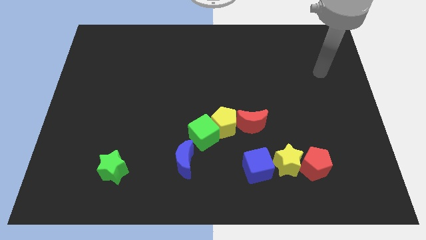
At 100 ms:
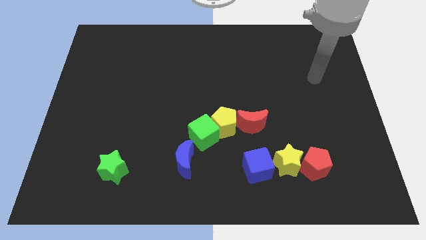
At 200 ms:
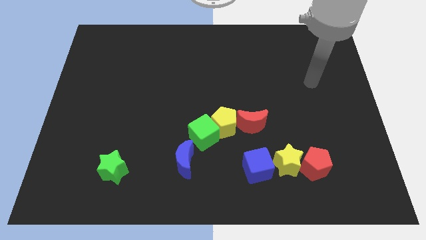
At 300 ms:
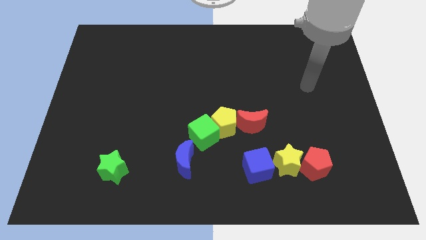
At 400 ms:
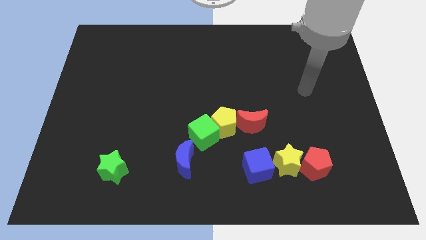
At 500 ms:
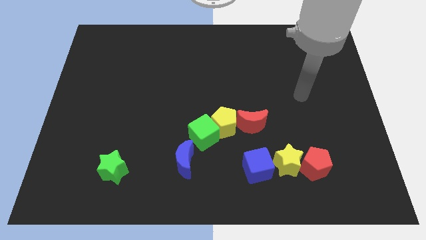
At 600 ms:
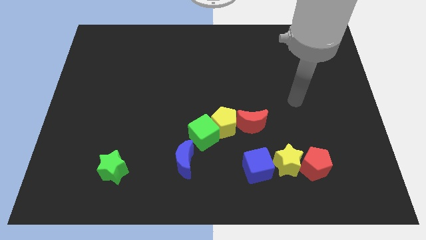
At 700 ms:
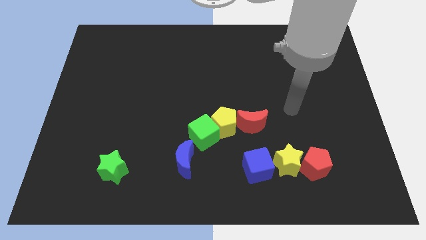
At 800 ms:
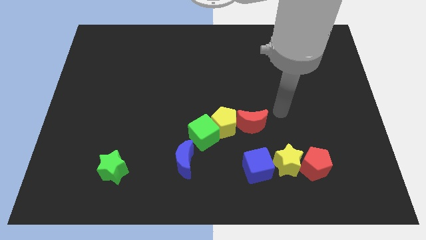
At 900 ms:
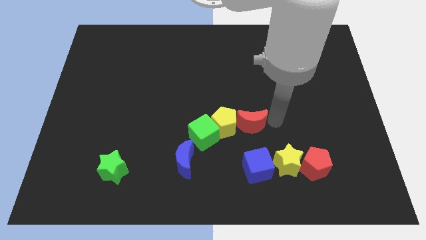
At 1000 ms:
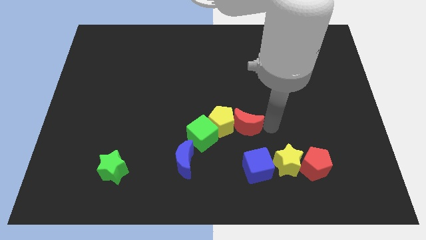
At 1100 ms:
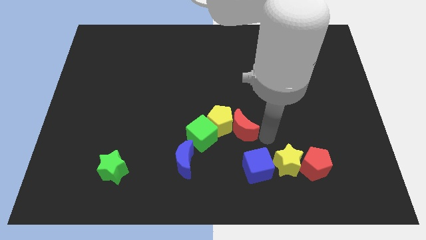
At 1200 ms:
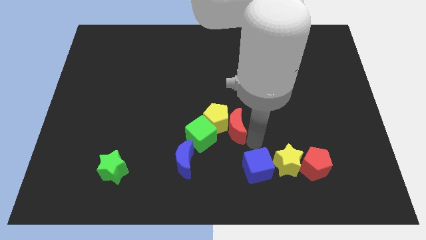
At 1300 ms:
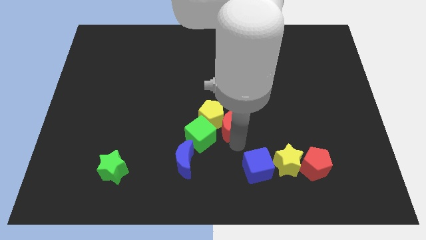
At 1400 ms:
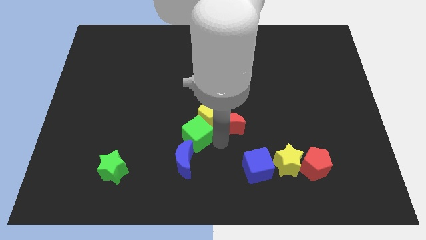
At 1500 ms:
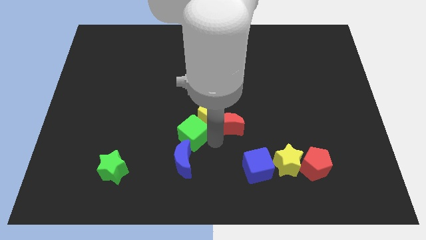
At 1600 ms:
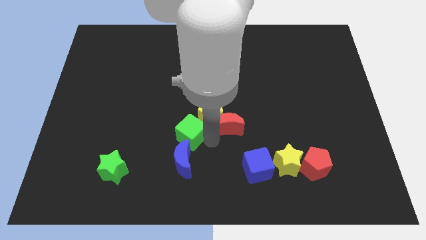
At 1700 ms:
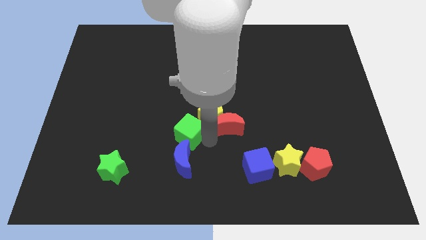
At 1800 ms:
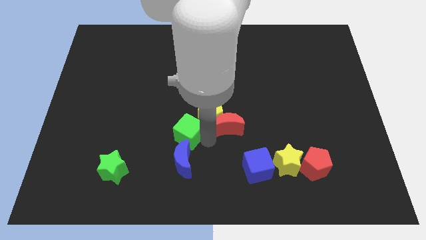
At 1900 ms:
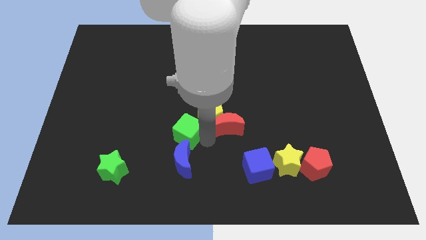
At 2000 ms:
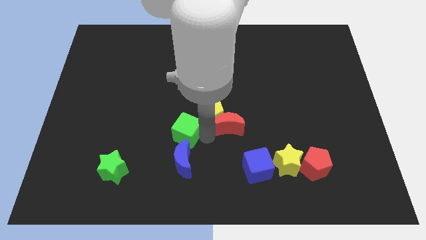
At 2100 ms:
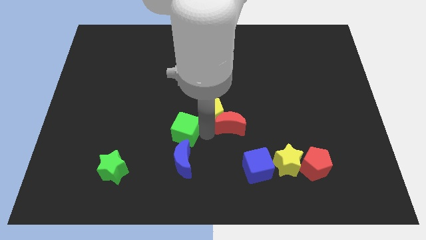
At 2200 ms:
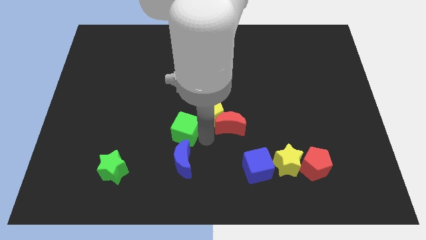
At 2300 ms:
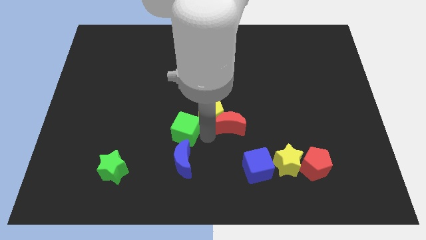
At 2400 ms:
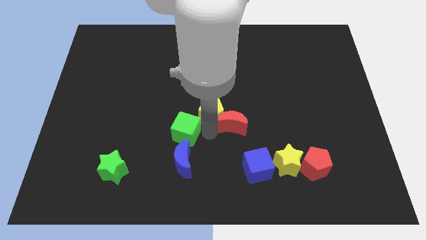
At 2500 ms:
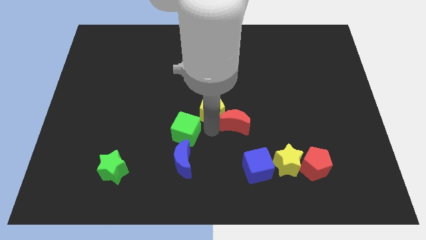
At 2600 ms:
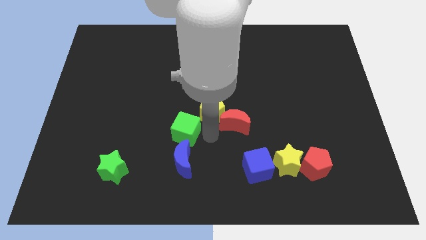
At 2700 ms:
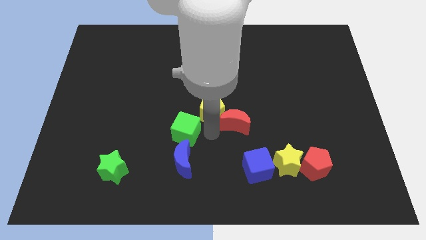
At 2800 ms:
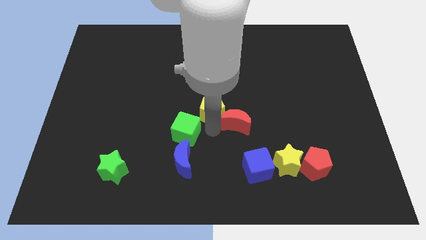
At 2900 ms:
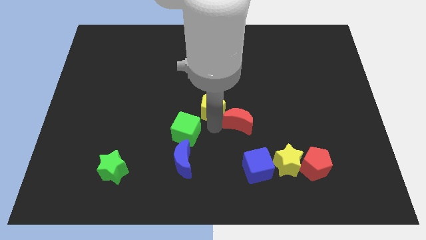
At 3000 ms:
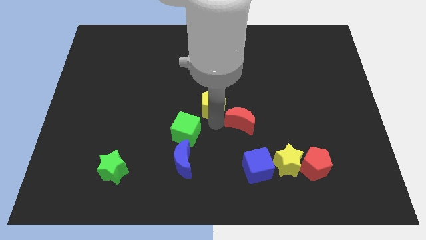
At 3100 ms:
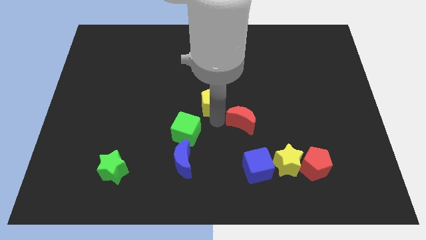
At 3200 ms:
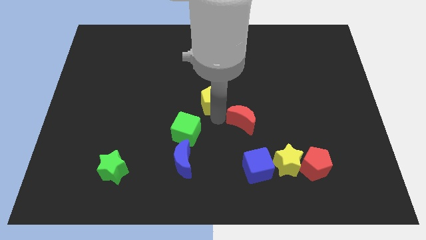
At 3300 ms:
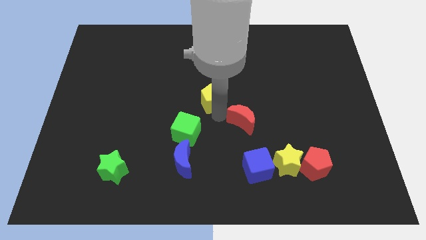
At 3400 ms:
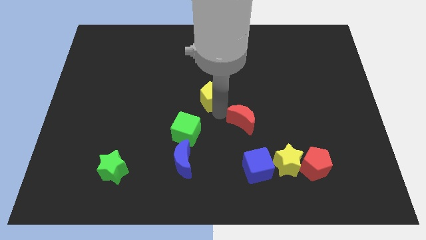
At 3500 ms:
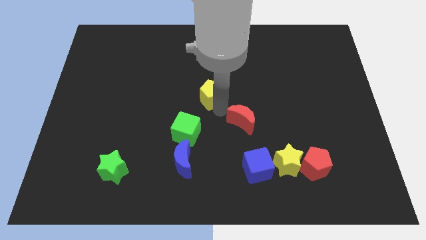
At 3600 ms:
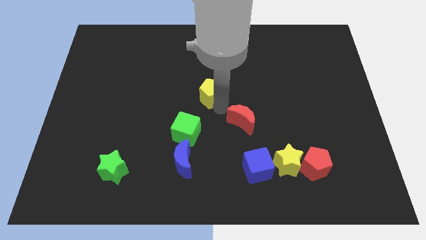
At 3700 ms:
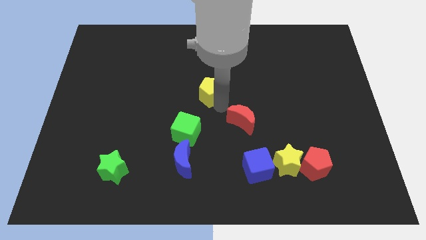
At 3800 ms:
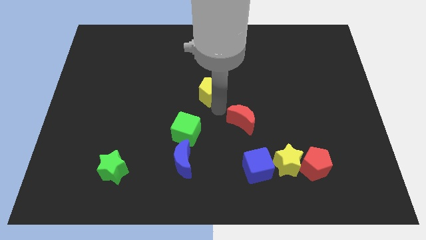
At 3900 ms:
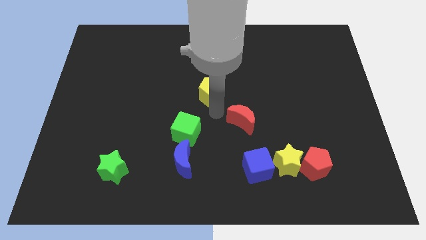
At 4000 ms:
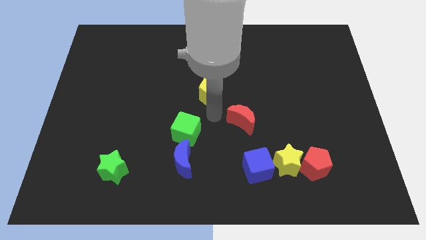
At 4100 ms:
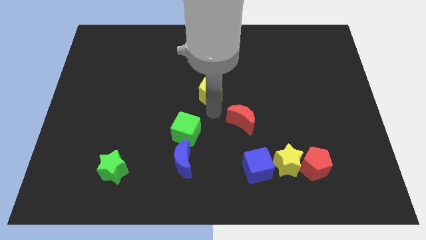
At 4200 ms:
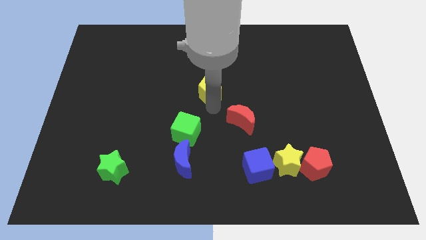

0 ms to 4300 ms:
separate the yellow pentagon from the green cube and red moon

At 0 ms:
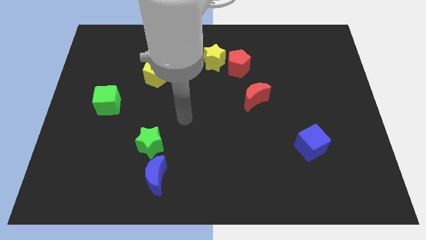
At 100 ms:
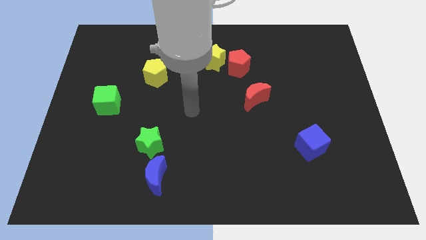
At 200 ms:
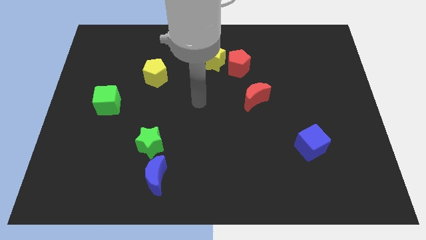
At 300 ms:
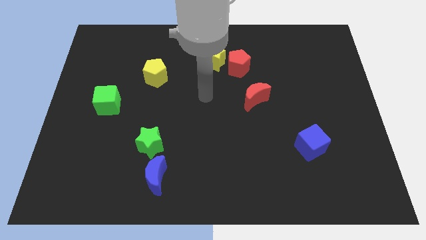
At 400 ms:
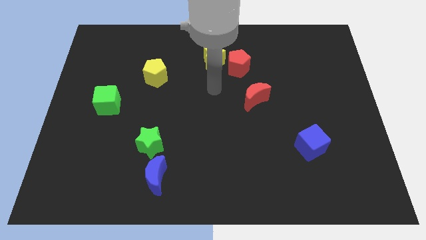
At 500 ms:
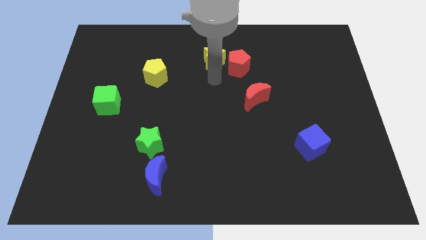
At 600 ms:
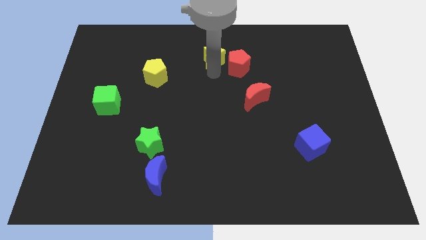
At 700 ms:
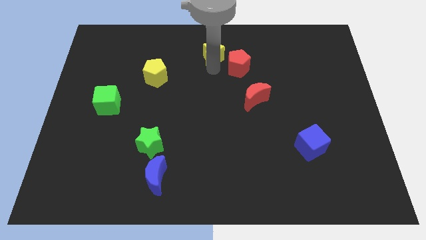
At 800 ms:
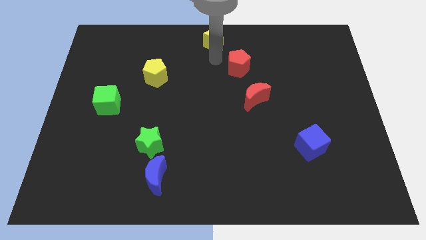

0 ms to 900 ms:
pull the red pentagon apart from the yellow star

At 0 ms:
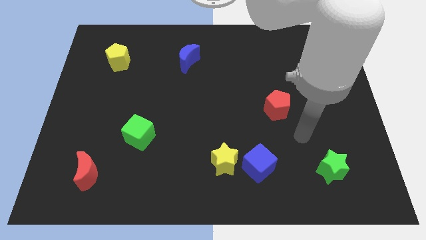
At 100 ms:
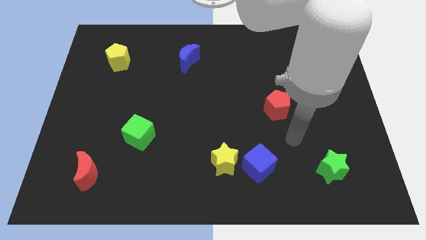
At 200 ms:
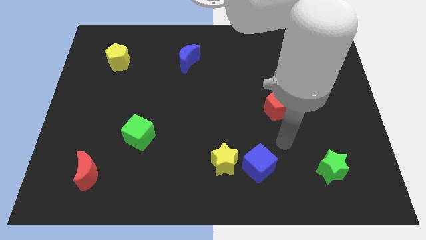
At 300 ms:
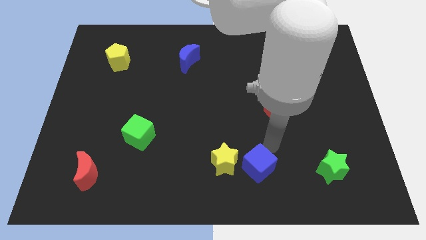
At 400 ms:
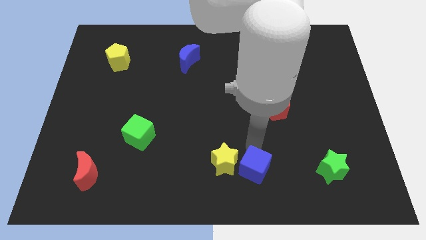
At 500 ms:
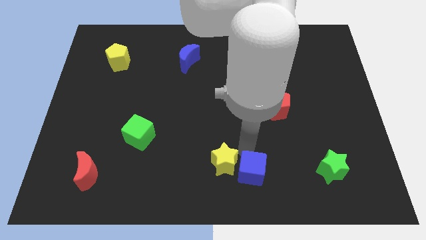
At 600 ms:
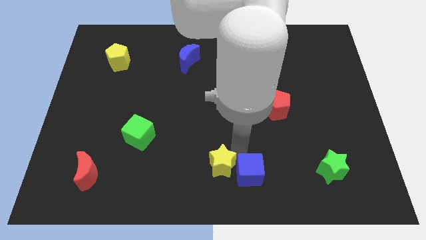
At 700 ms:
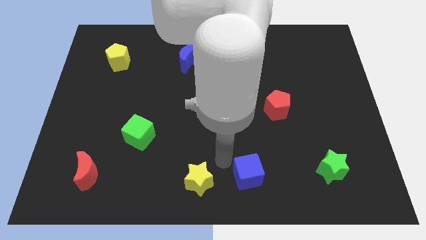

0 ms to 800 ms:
separate the blue cube from the yellow star

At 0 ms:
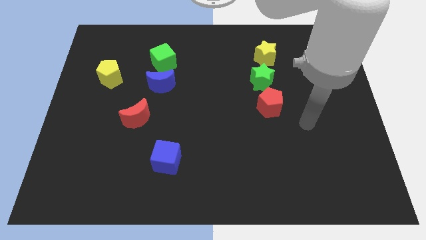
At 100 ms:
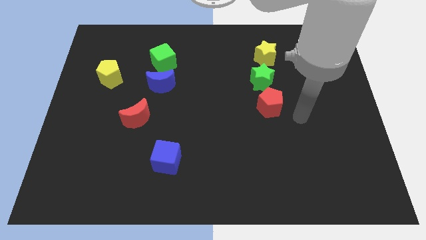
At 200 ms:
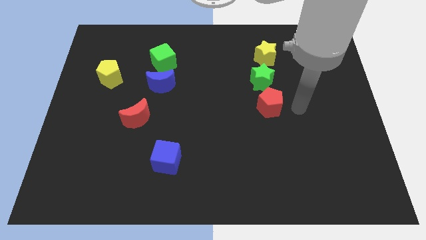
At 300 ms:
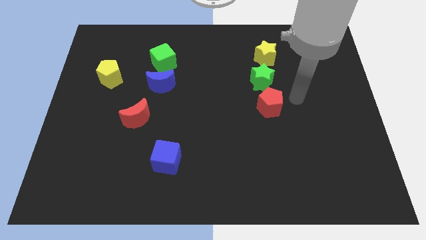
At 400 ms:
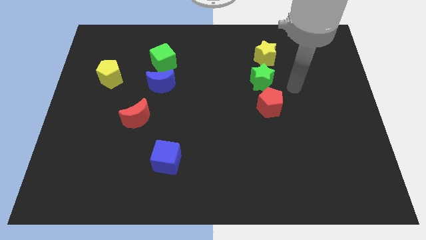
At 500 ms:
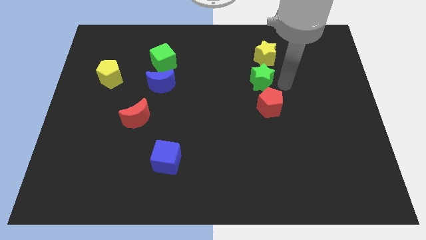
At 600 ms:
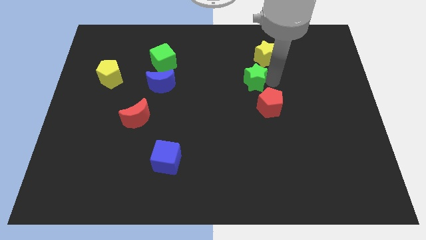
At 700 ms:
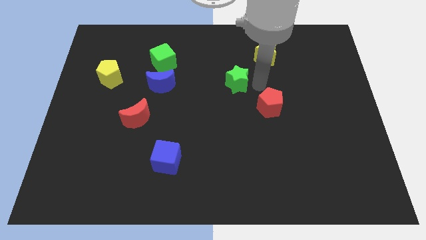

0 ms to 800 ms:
separate the red pentagon from the green star

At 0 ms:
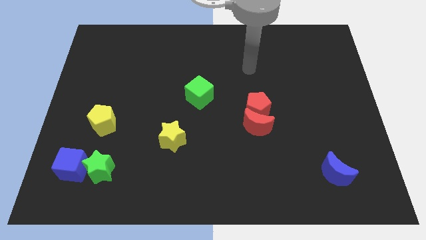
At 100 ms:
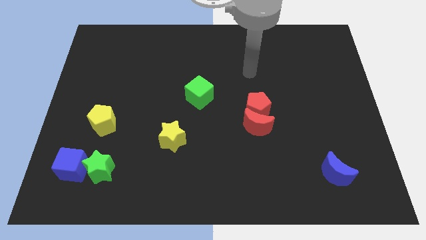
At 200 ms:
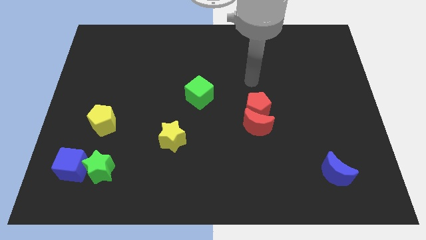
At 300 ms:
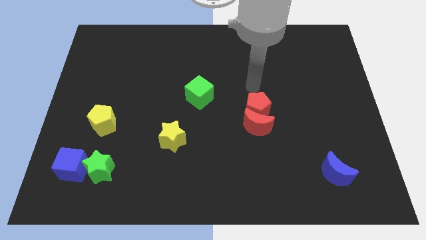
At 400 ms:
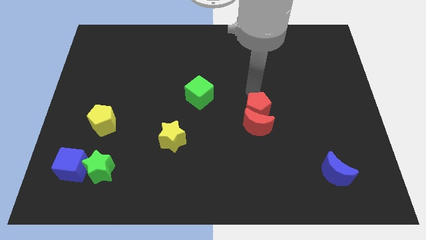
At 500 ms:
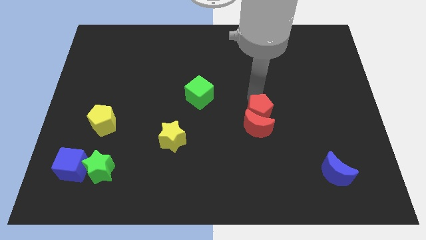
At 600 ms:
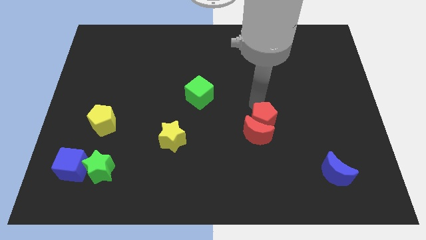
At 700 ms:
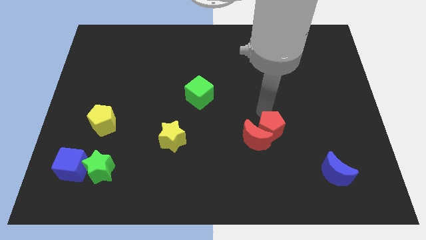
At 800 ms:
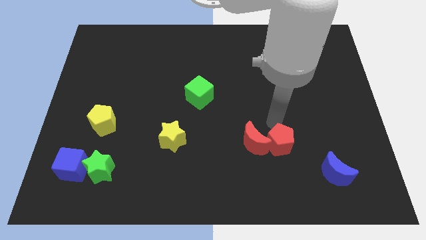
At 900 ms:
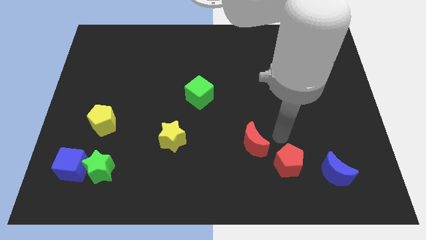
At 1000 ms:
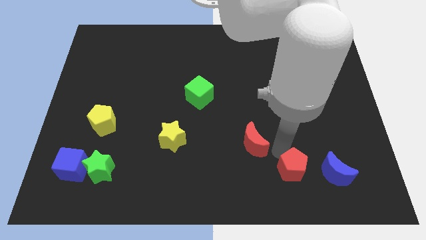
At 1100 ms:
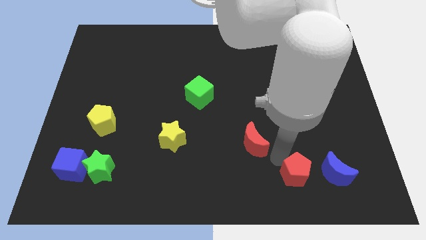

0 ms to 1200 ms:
move the red moon away from the red pentagon

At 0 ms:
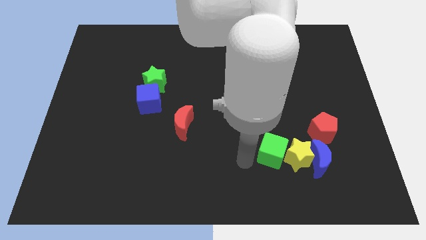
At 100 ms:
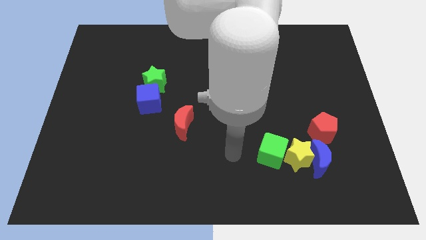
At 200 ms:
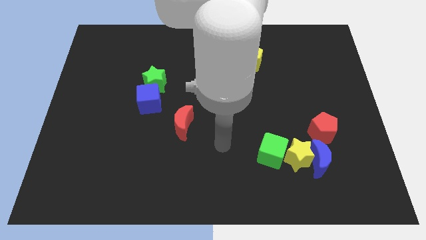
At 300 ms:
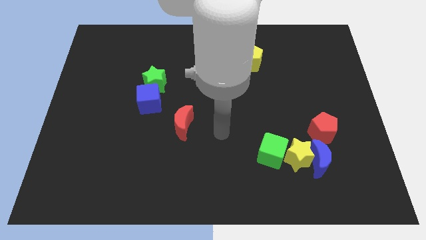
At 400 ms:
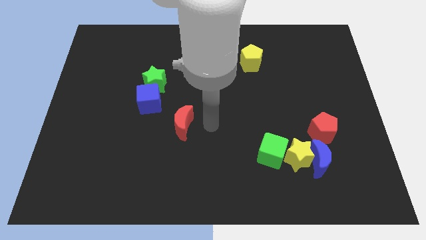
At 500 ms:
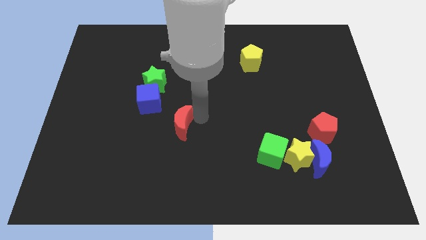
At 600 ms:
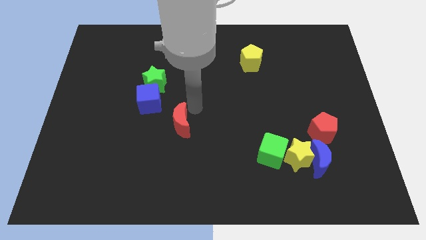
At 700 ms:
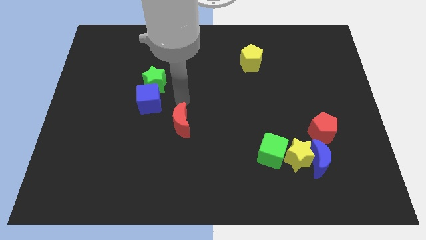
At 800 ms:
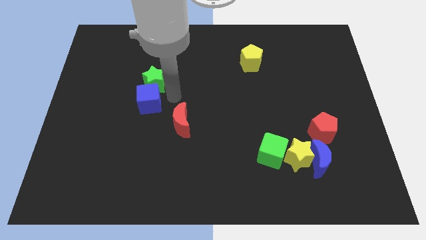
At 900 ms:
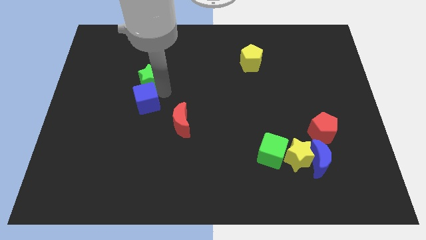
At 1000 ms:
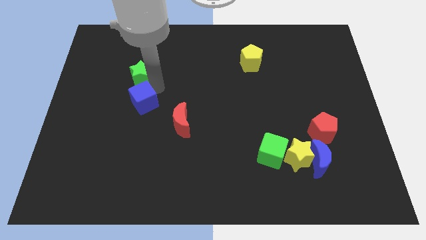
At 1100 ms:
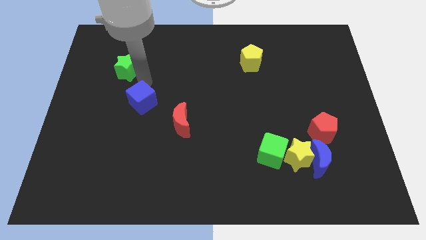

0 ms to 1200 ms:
pull the blue cube apart from the green star
